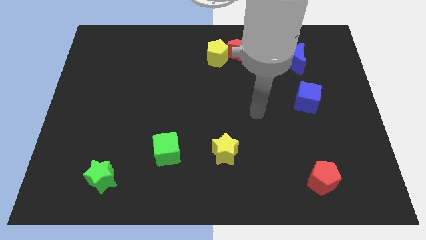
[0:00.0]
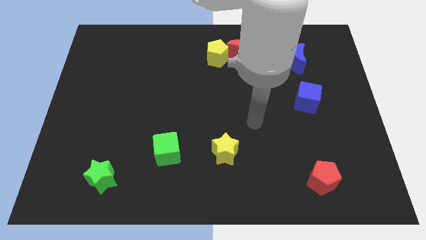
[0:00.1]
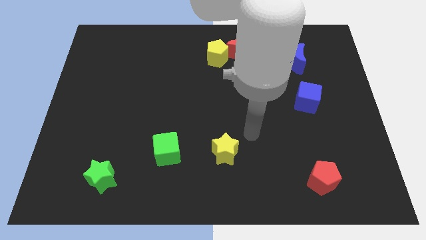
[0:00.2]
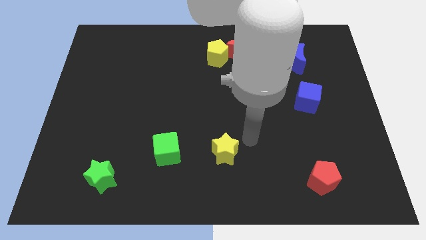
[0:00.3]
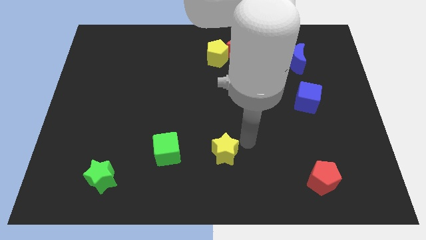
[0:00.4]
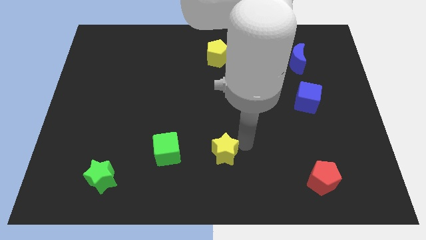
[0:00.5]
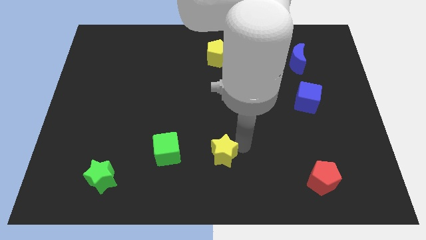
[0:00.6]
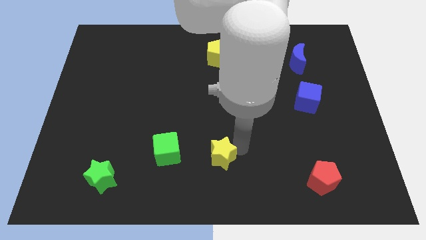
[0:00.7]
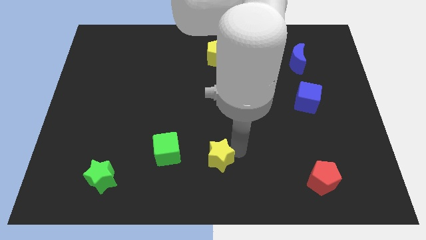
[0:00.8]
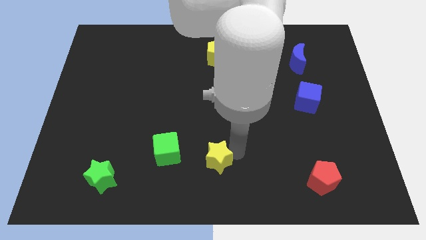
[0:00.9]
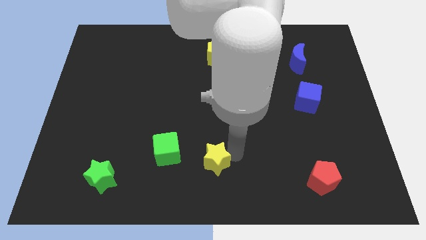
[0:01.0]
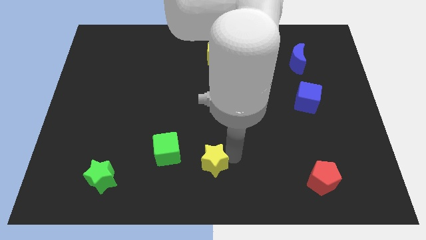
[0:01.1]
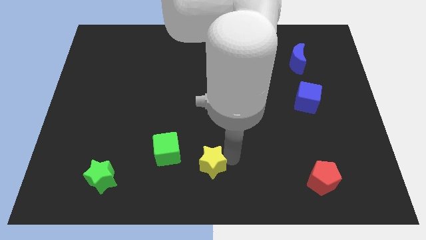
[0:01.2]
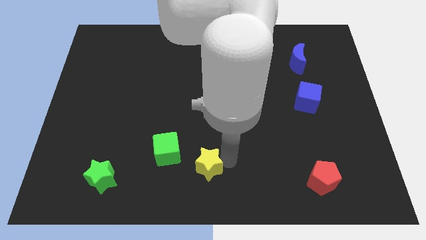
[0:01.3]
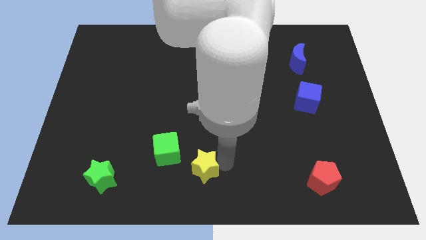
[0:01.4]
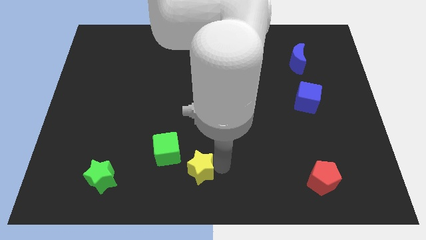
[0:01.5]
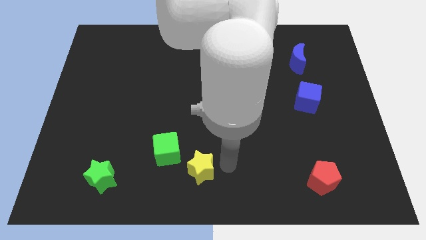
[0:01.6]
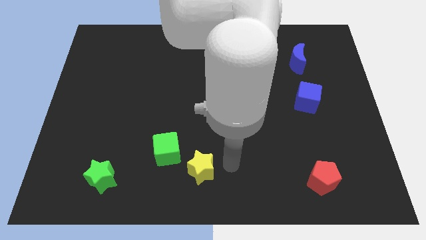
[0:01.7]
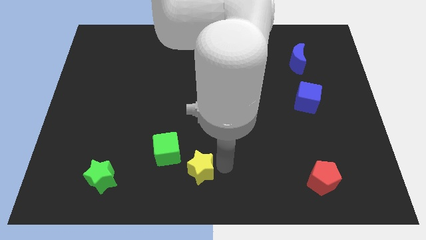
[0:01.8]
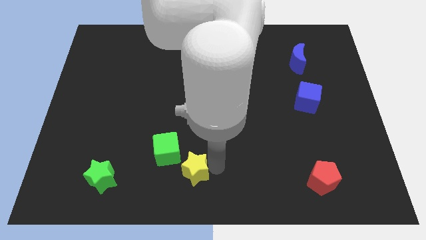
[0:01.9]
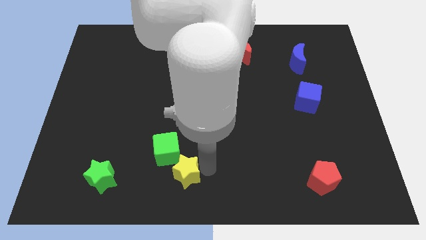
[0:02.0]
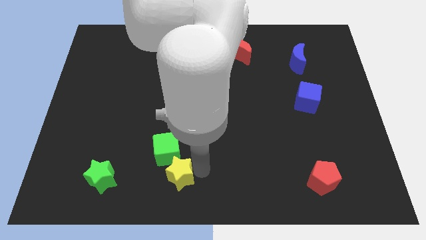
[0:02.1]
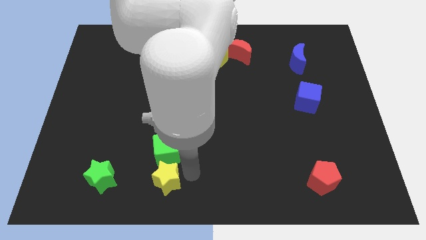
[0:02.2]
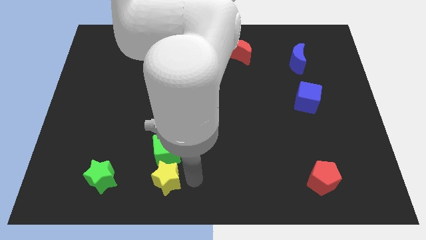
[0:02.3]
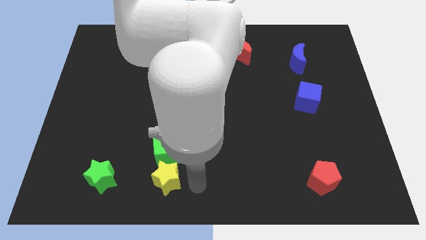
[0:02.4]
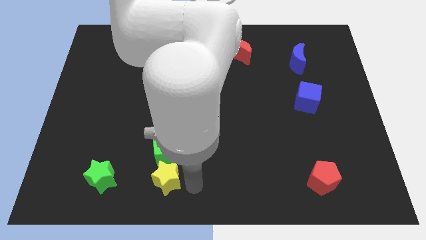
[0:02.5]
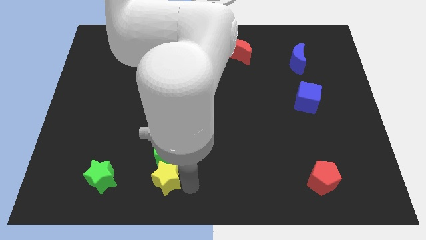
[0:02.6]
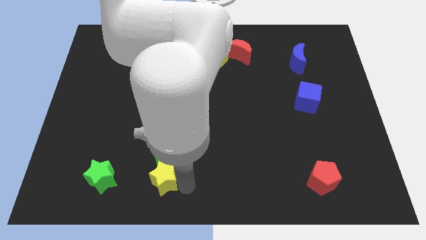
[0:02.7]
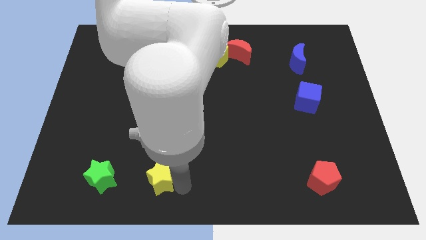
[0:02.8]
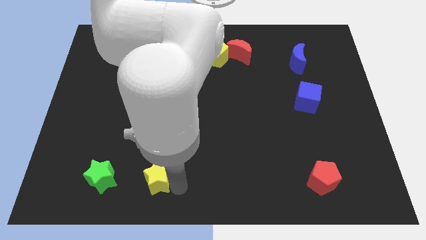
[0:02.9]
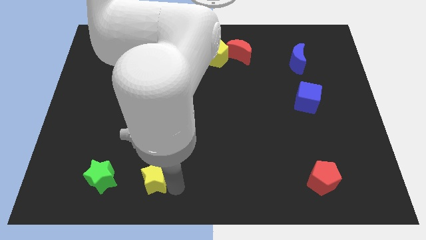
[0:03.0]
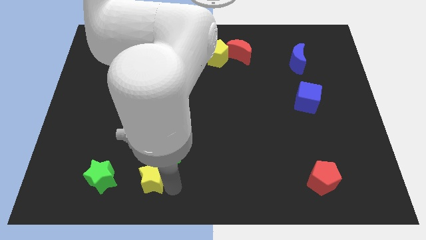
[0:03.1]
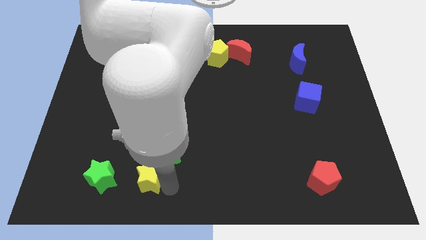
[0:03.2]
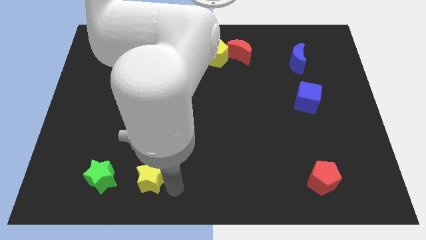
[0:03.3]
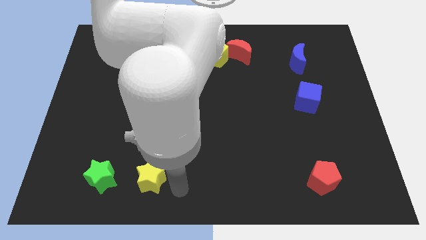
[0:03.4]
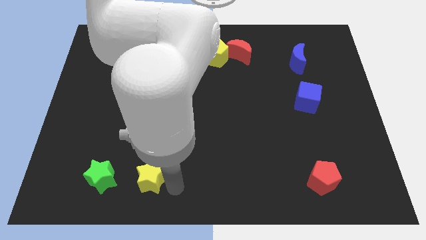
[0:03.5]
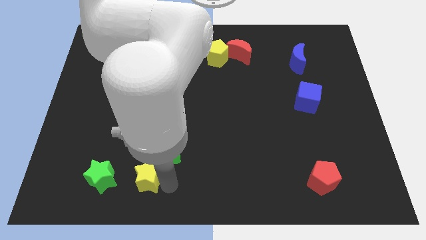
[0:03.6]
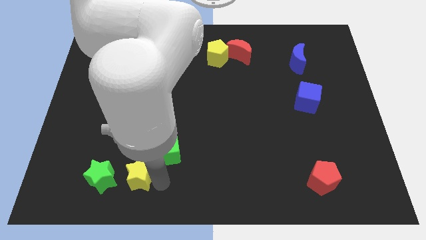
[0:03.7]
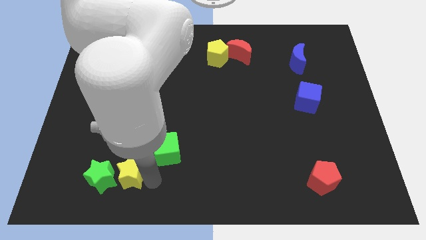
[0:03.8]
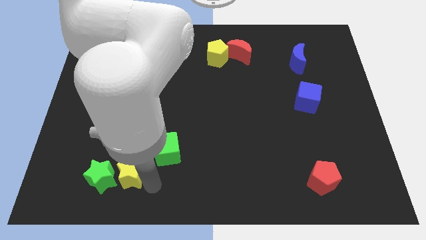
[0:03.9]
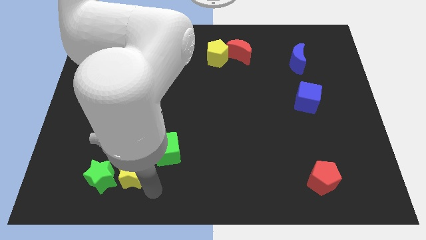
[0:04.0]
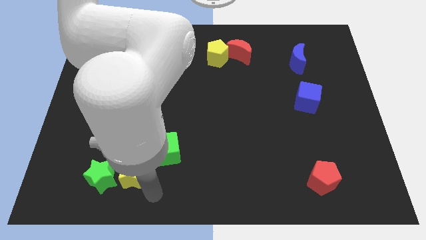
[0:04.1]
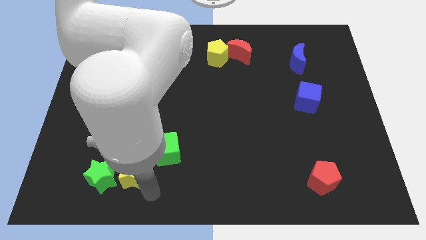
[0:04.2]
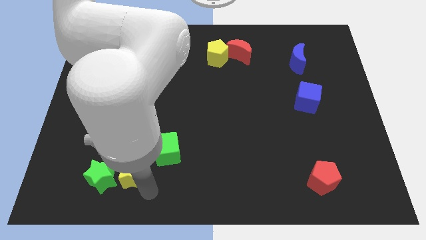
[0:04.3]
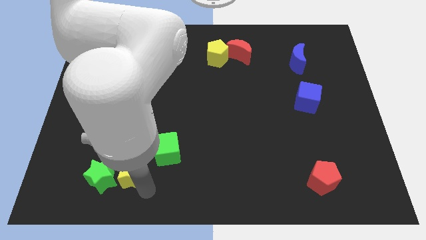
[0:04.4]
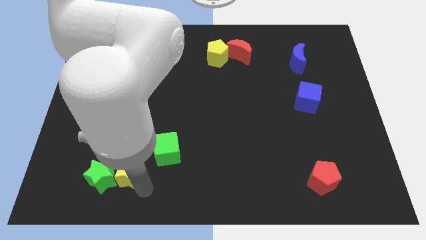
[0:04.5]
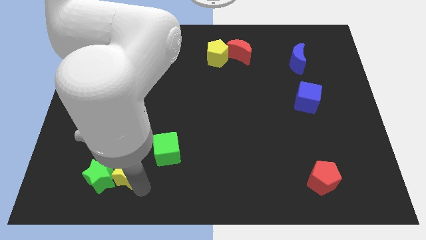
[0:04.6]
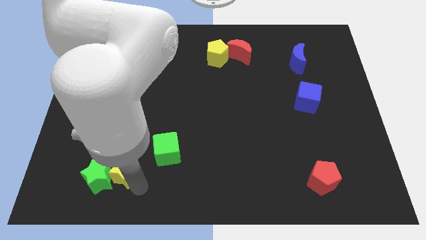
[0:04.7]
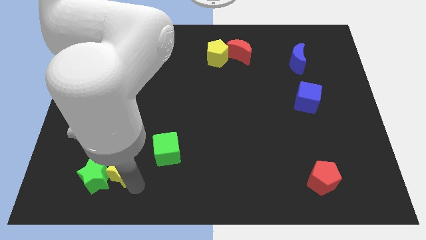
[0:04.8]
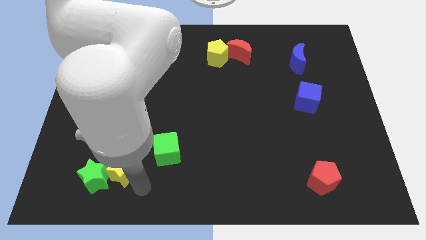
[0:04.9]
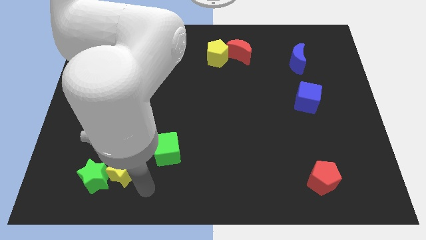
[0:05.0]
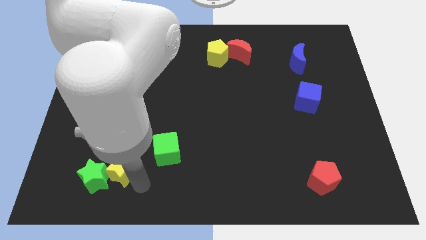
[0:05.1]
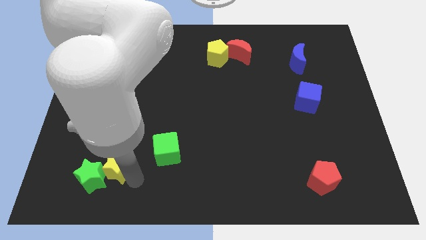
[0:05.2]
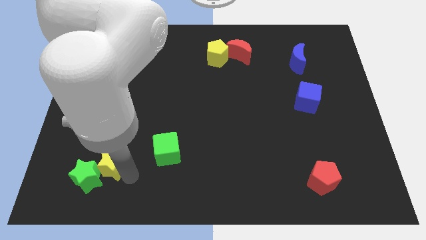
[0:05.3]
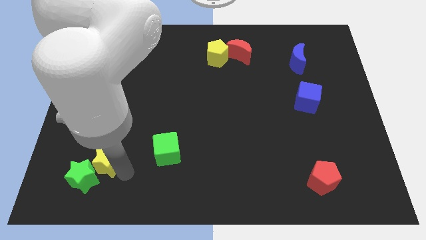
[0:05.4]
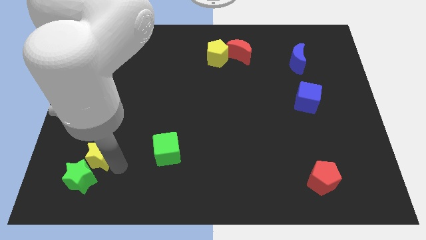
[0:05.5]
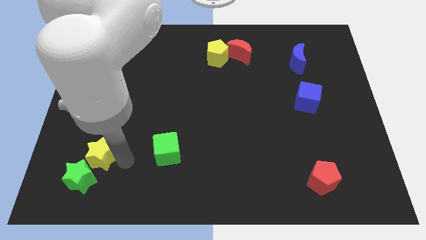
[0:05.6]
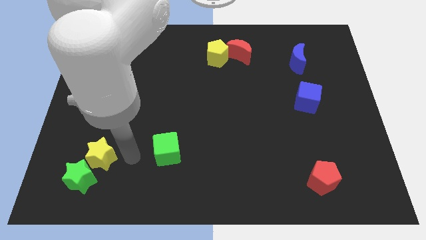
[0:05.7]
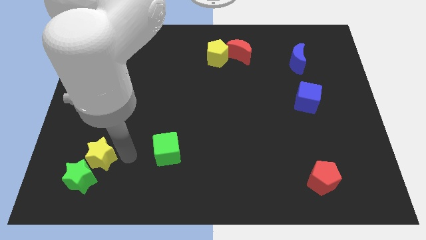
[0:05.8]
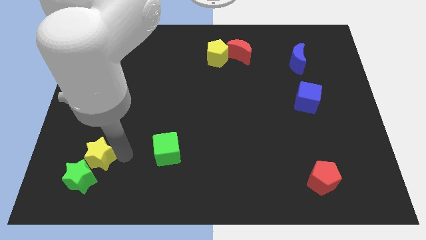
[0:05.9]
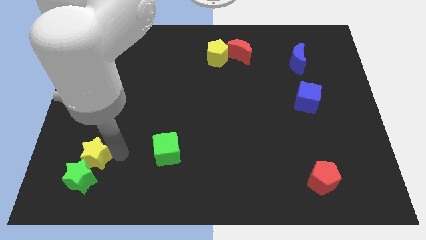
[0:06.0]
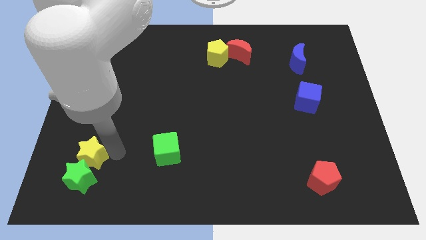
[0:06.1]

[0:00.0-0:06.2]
put the yellow star diagonally up and to the left of the green star

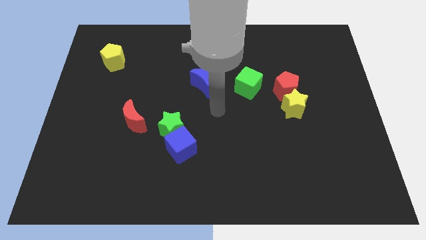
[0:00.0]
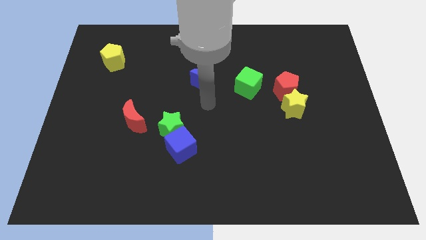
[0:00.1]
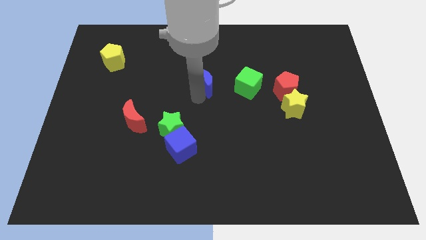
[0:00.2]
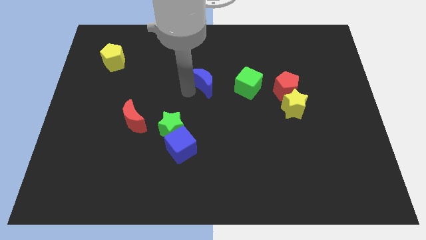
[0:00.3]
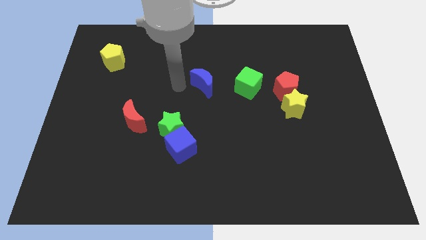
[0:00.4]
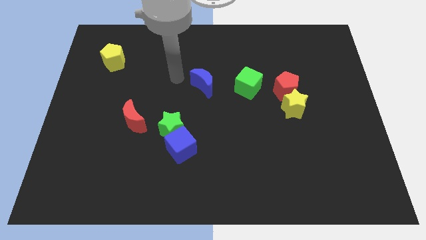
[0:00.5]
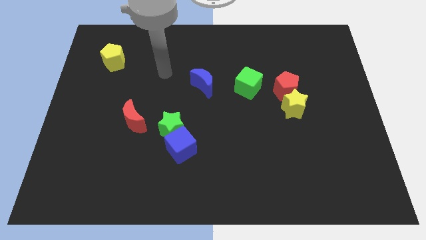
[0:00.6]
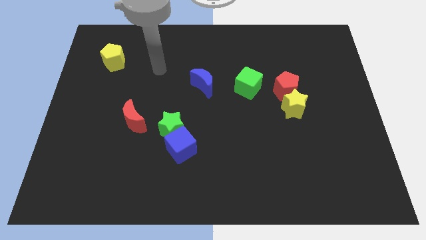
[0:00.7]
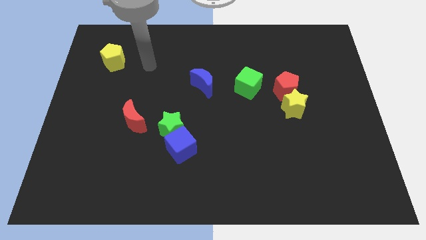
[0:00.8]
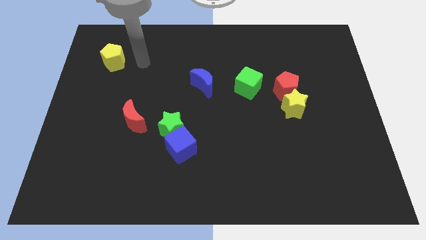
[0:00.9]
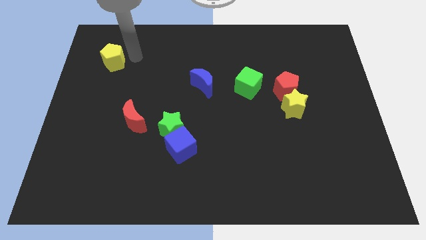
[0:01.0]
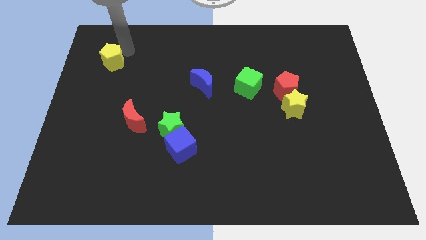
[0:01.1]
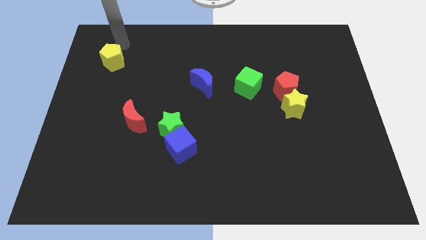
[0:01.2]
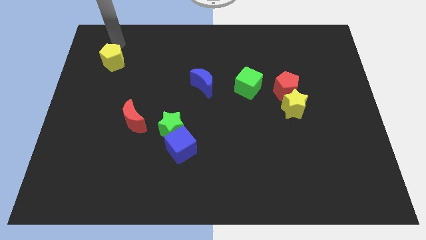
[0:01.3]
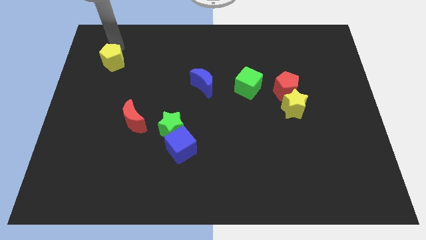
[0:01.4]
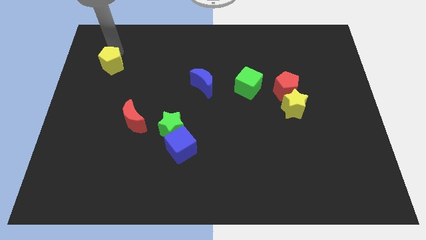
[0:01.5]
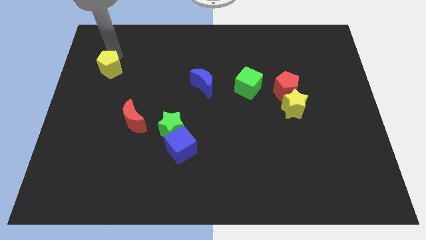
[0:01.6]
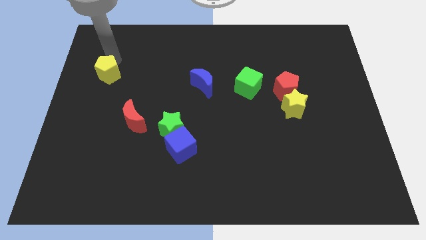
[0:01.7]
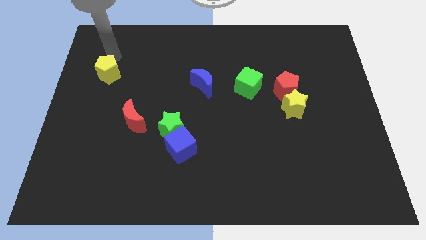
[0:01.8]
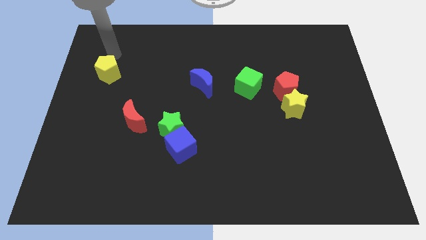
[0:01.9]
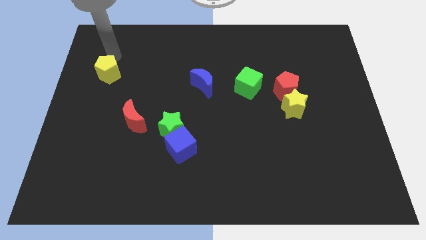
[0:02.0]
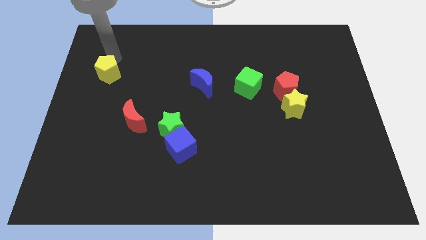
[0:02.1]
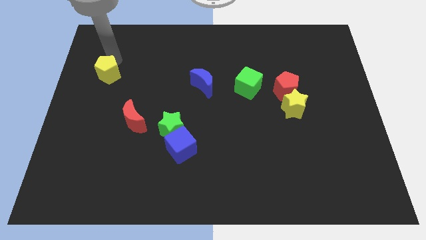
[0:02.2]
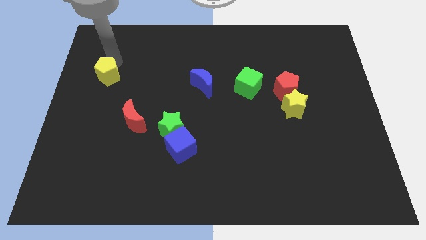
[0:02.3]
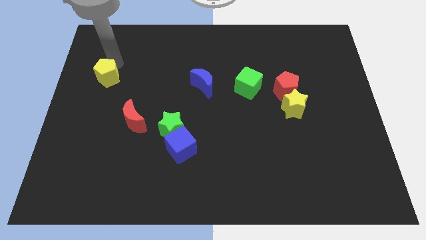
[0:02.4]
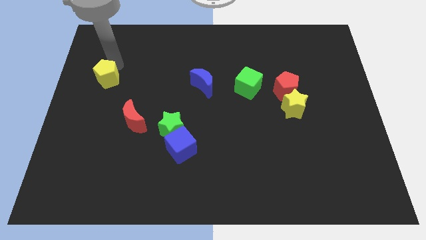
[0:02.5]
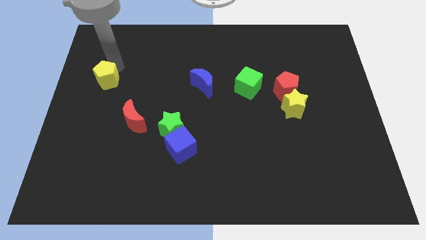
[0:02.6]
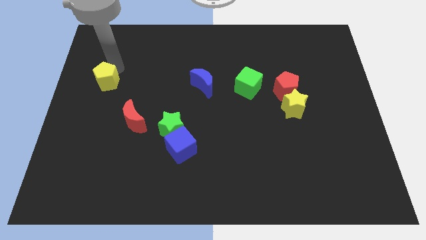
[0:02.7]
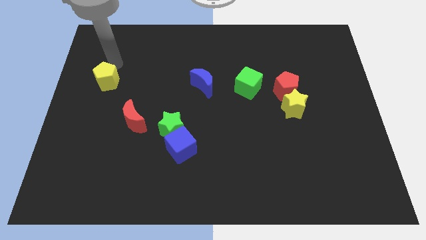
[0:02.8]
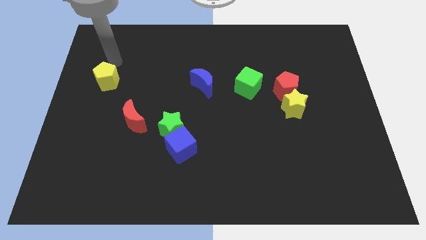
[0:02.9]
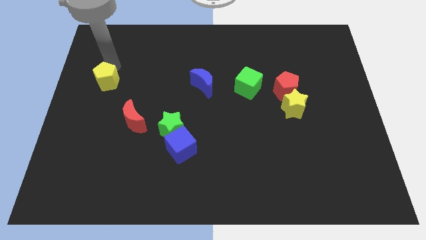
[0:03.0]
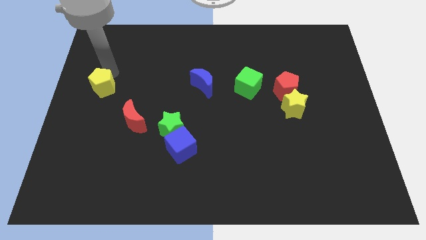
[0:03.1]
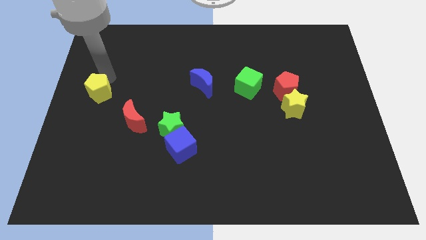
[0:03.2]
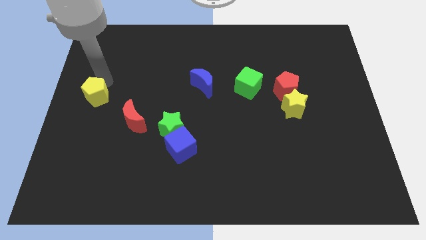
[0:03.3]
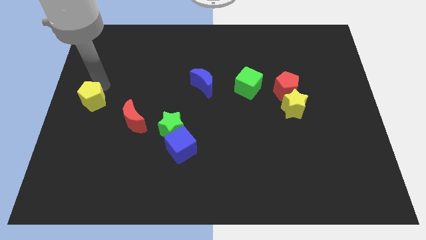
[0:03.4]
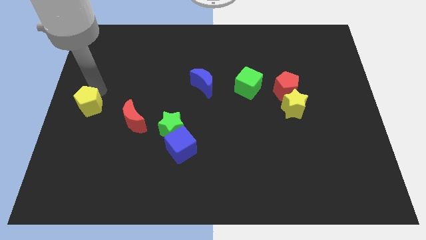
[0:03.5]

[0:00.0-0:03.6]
slide the yellow pentagon to the left of the red moon
